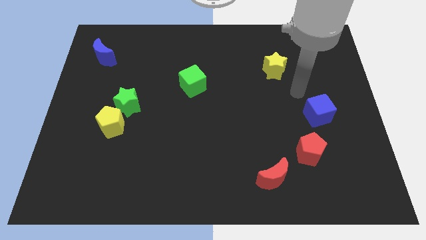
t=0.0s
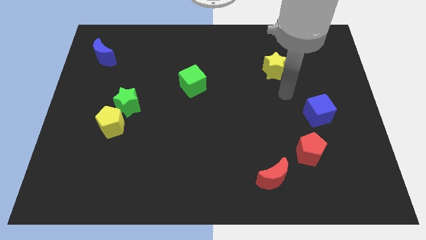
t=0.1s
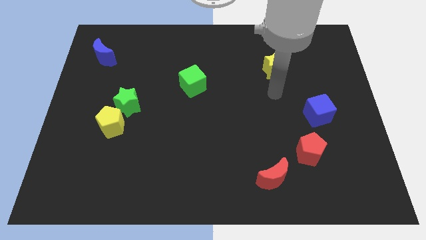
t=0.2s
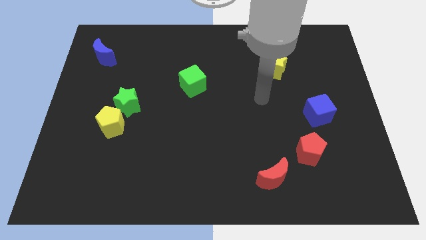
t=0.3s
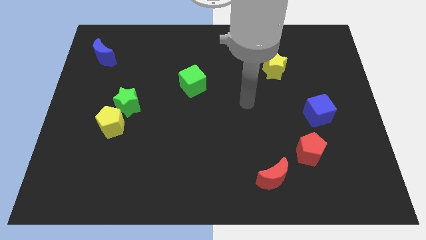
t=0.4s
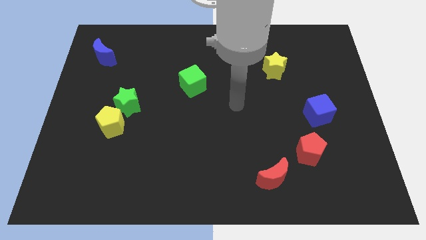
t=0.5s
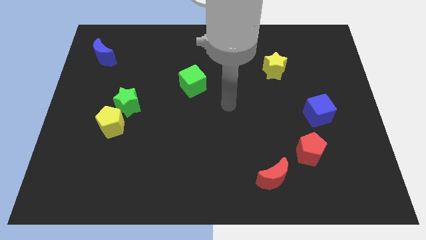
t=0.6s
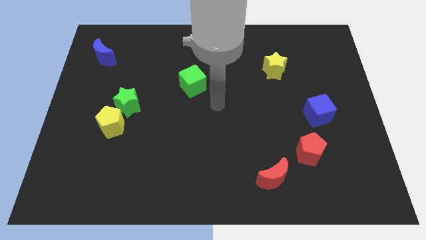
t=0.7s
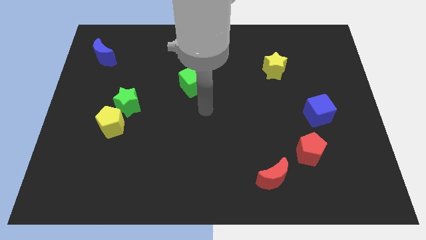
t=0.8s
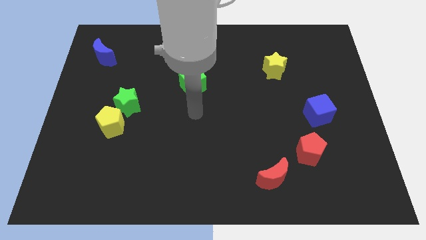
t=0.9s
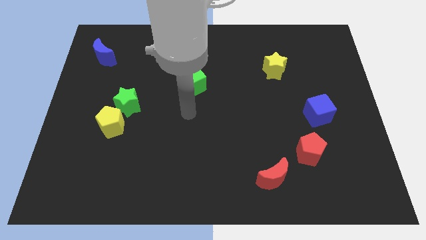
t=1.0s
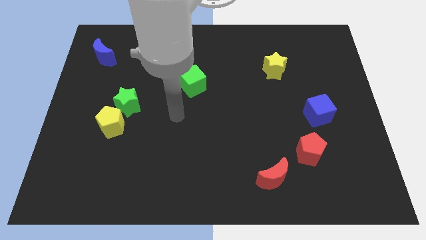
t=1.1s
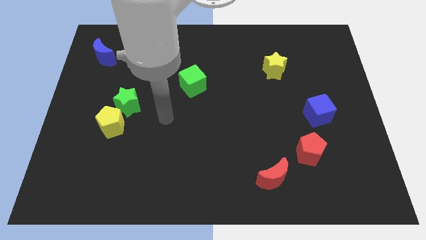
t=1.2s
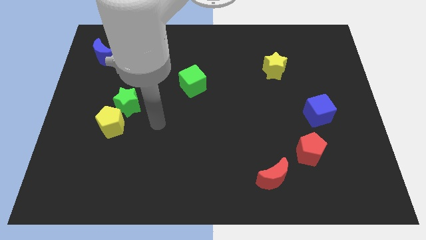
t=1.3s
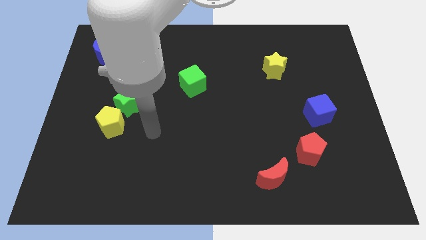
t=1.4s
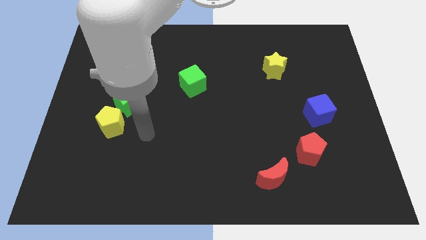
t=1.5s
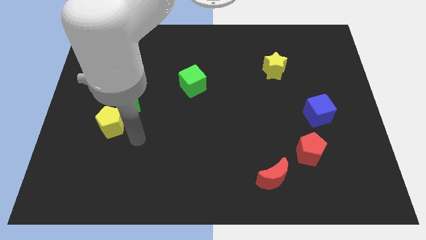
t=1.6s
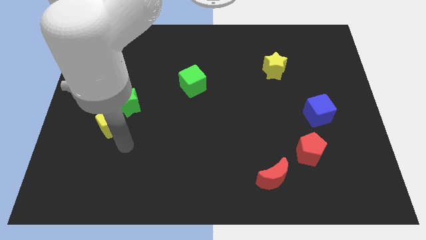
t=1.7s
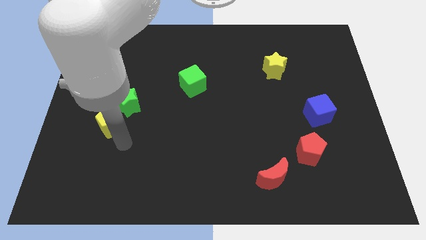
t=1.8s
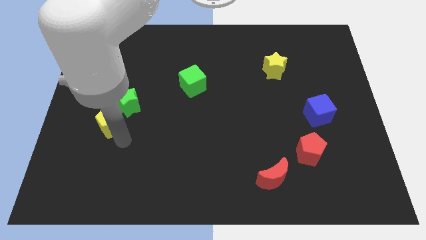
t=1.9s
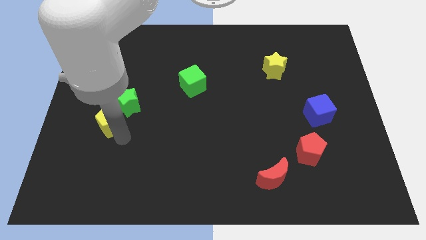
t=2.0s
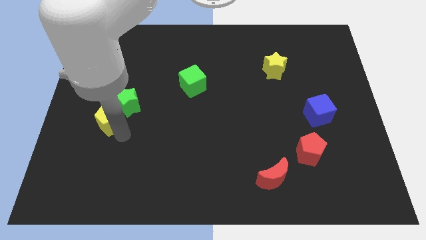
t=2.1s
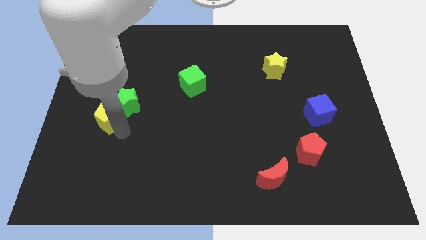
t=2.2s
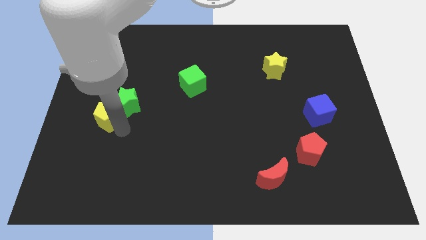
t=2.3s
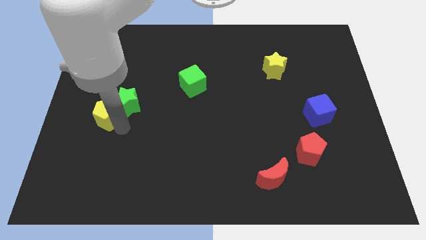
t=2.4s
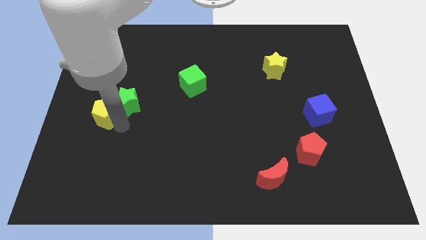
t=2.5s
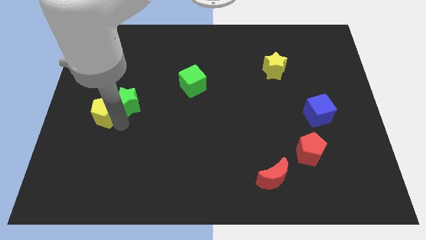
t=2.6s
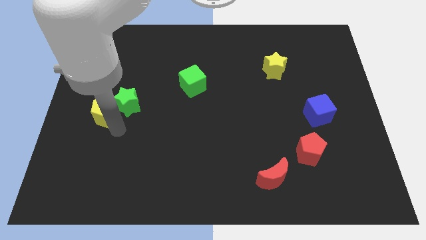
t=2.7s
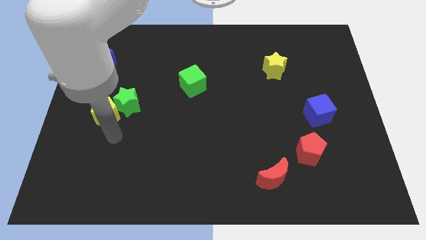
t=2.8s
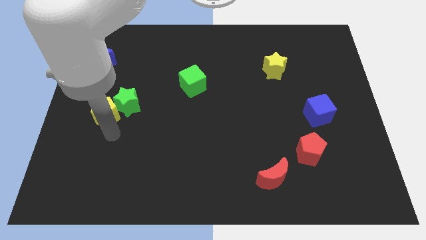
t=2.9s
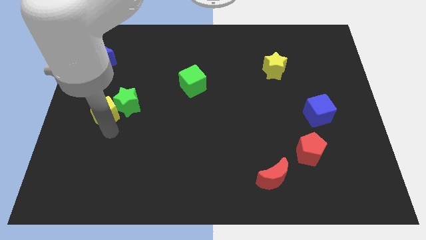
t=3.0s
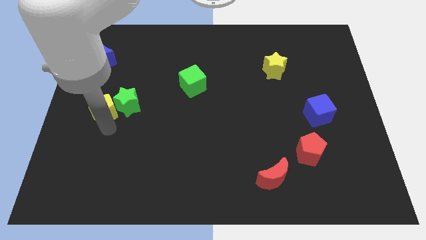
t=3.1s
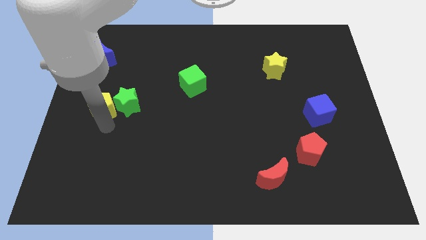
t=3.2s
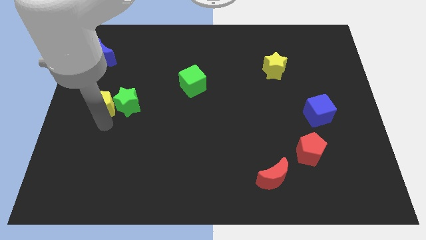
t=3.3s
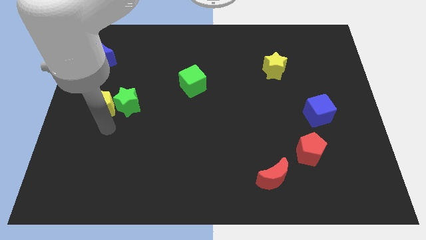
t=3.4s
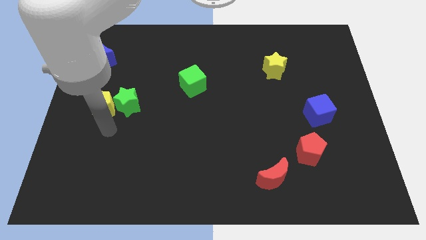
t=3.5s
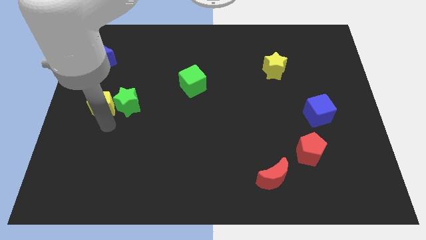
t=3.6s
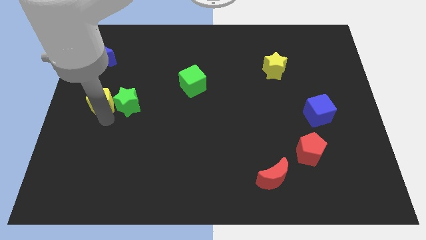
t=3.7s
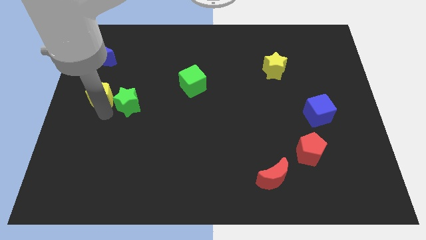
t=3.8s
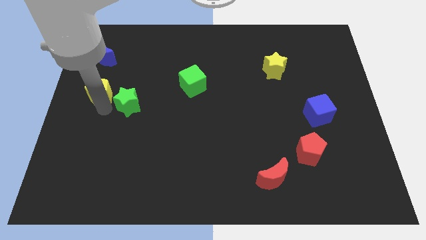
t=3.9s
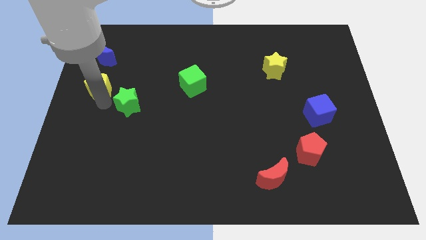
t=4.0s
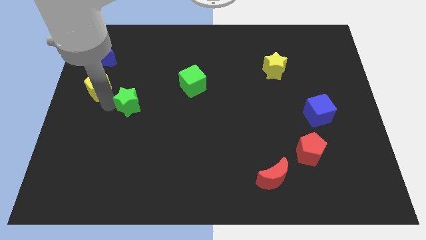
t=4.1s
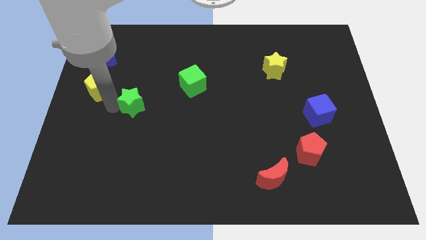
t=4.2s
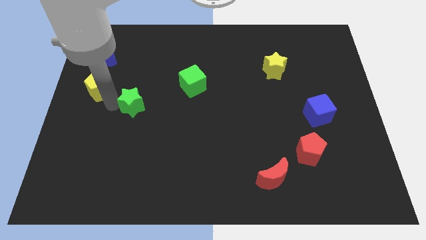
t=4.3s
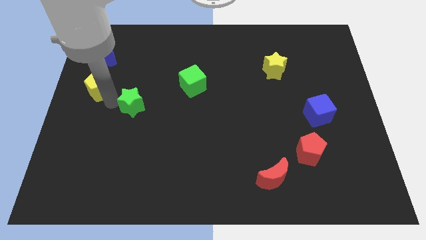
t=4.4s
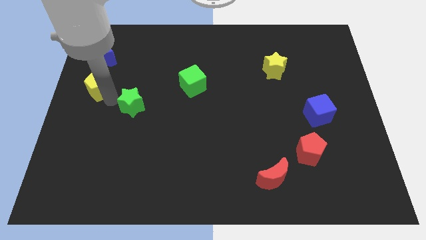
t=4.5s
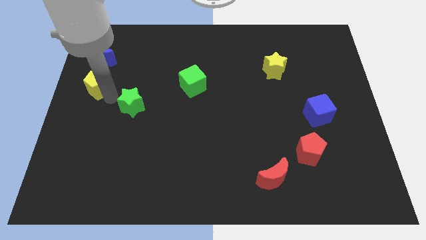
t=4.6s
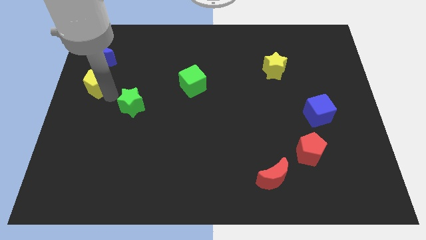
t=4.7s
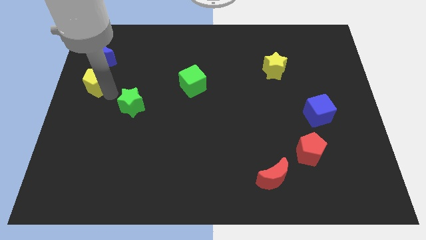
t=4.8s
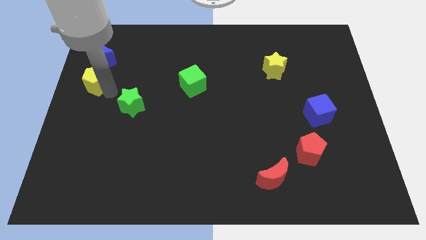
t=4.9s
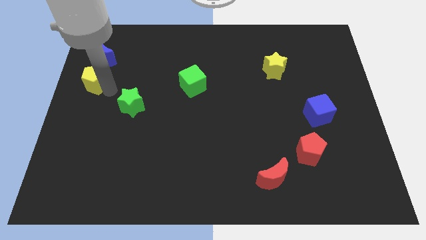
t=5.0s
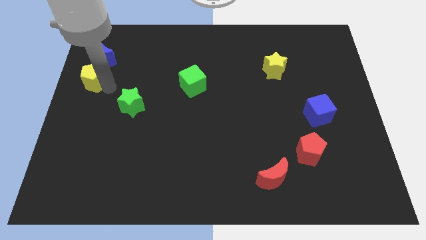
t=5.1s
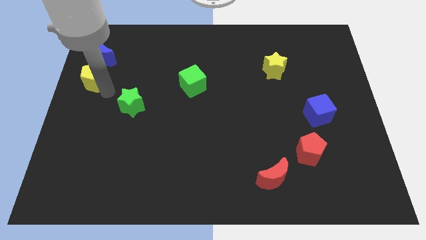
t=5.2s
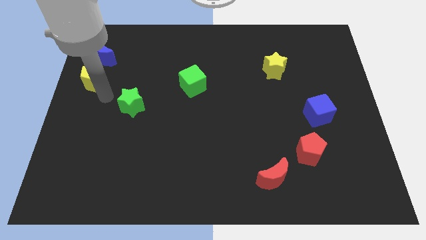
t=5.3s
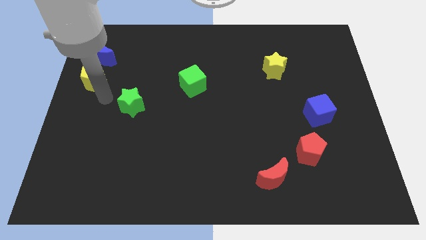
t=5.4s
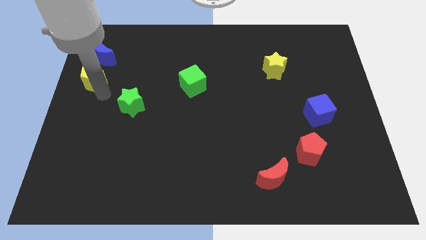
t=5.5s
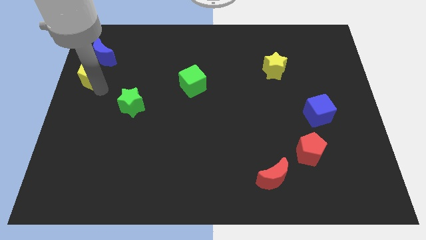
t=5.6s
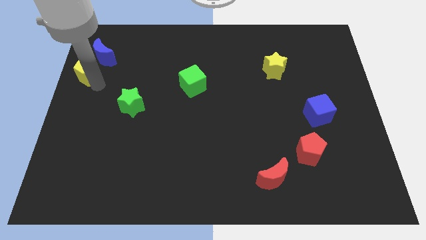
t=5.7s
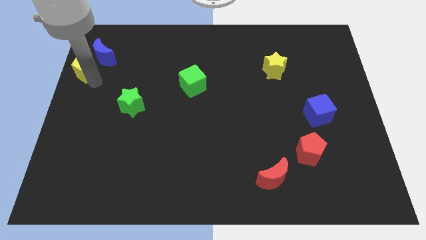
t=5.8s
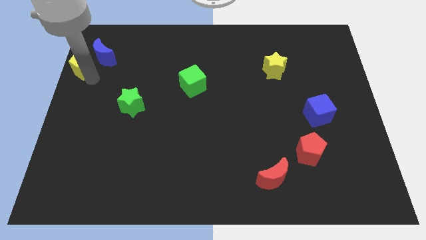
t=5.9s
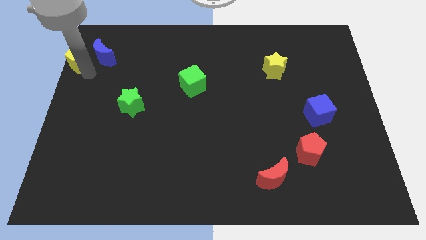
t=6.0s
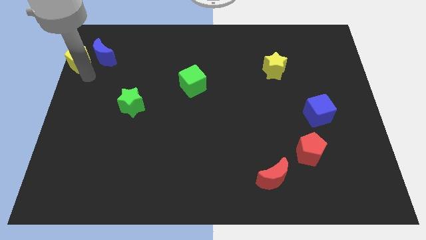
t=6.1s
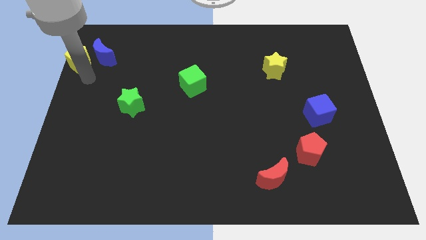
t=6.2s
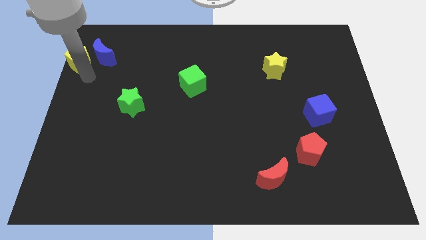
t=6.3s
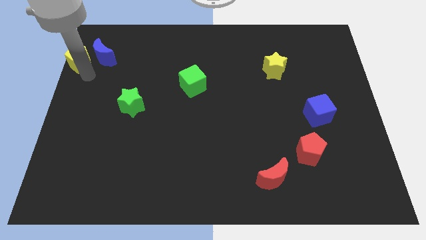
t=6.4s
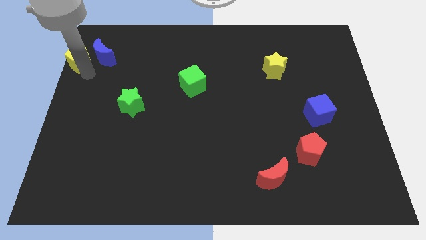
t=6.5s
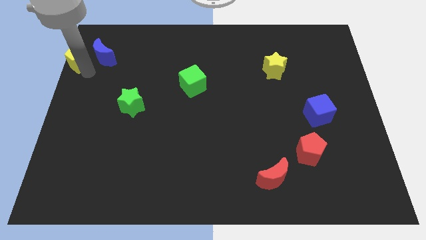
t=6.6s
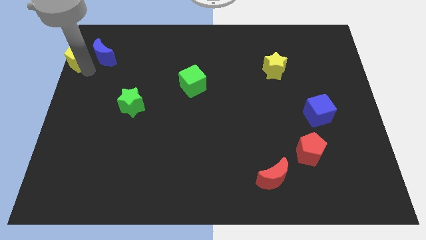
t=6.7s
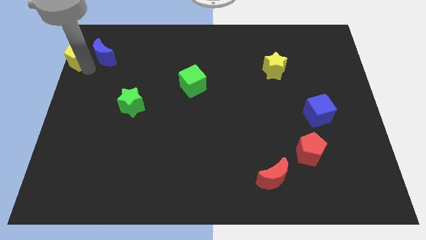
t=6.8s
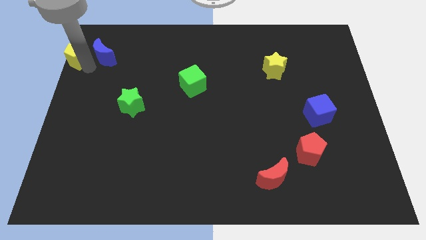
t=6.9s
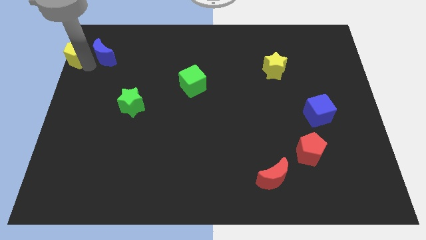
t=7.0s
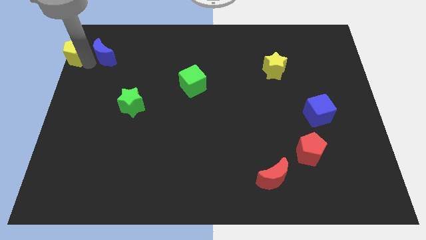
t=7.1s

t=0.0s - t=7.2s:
move the yellow pentagon to the top left of the board
